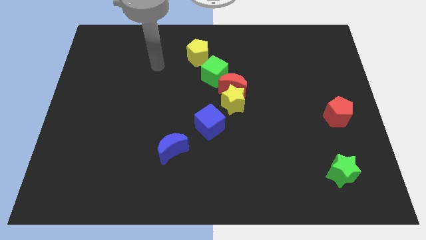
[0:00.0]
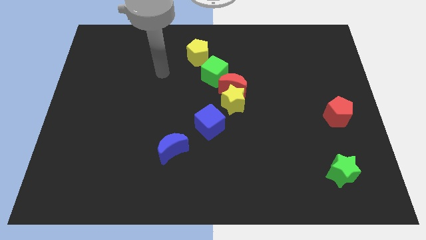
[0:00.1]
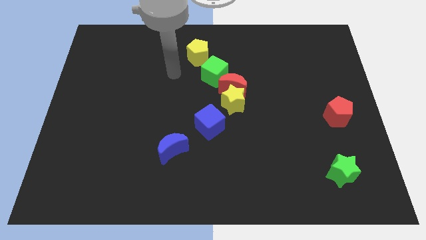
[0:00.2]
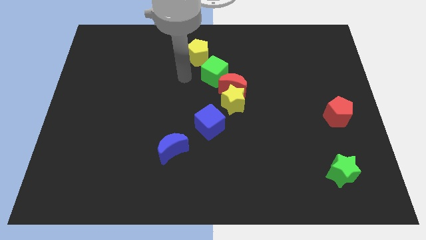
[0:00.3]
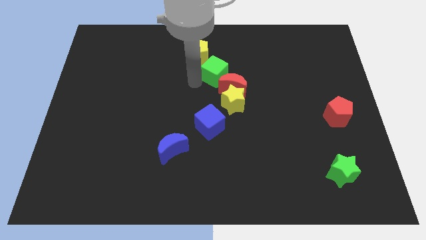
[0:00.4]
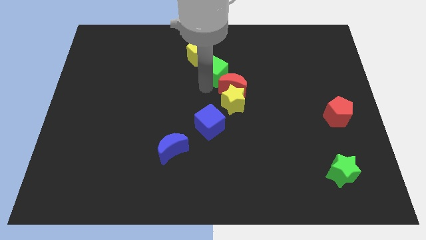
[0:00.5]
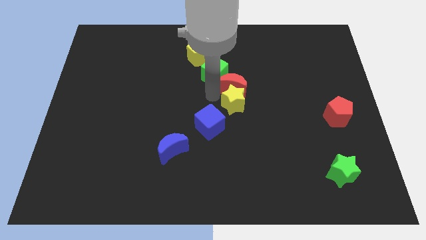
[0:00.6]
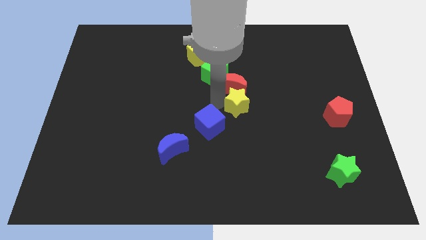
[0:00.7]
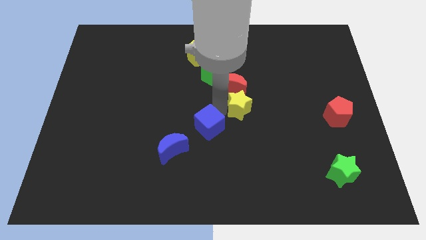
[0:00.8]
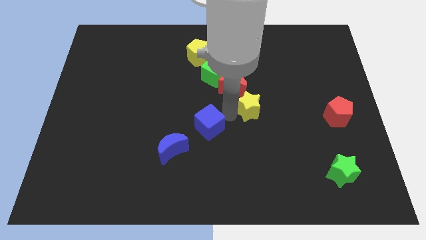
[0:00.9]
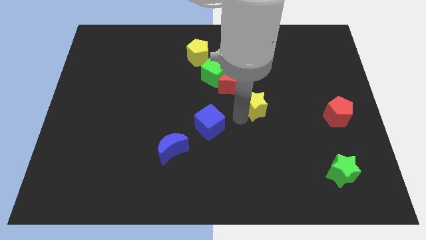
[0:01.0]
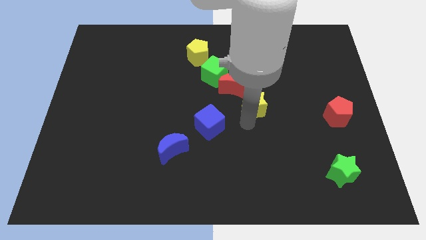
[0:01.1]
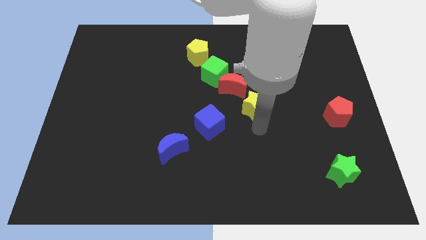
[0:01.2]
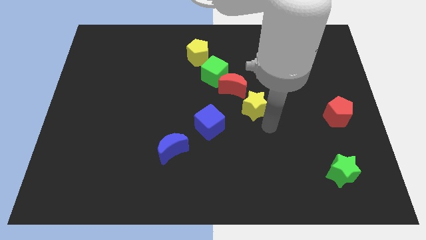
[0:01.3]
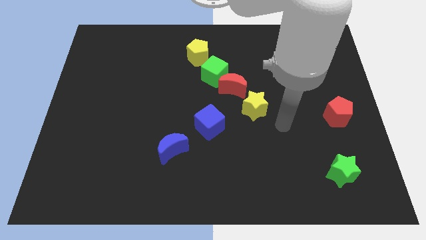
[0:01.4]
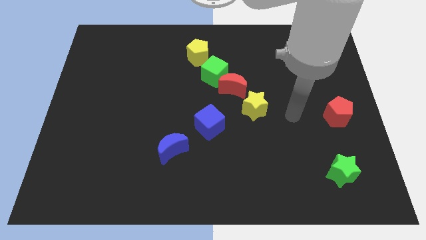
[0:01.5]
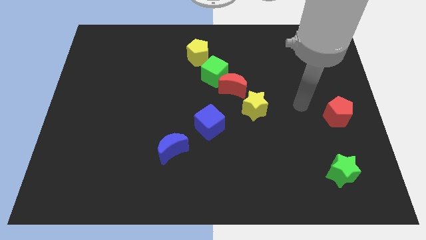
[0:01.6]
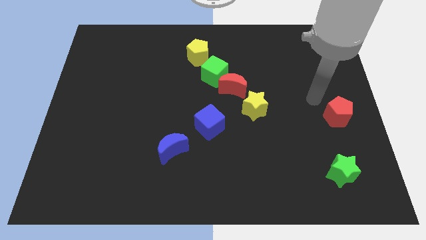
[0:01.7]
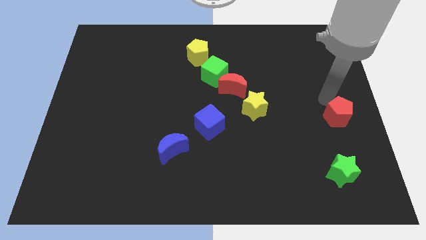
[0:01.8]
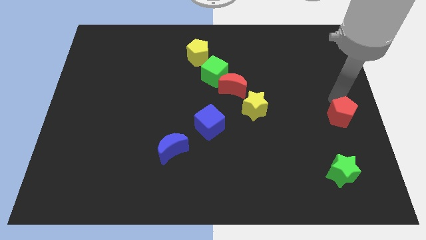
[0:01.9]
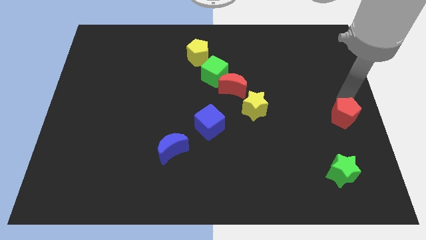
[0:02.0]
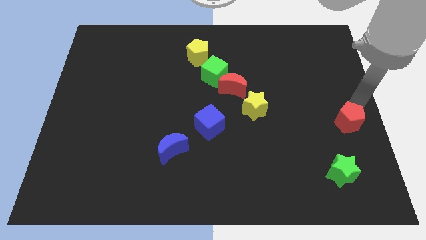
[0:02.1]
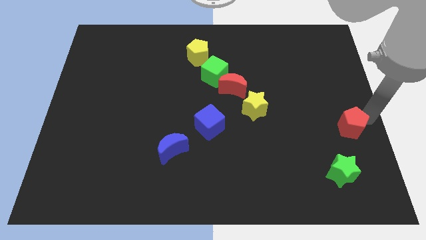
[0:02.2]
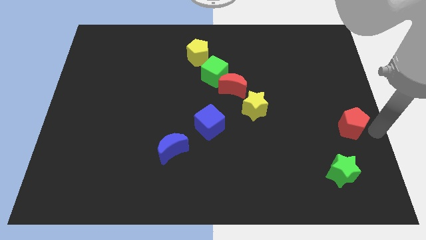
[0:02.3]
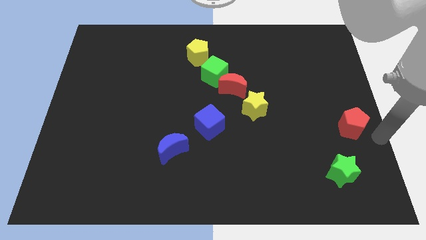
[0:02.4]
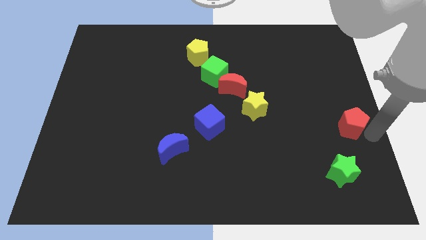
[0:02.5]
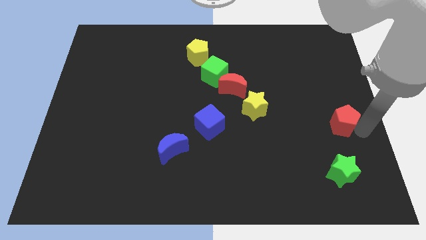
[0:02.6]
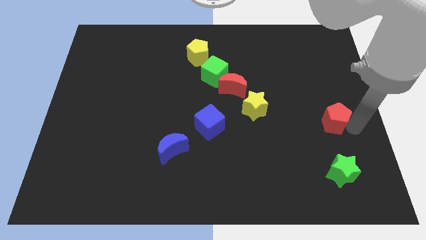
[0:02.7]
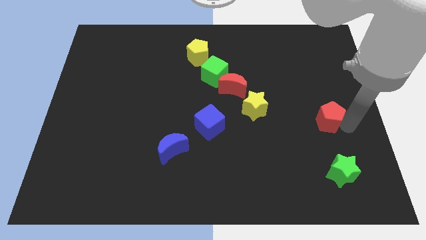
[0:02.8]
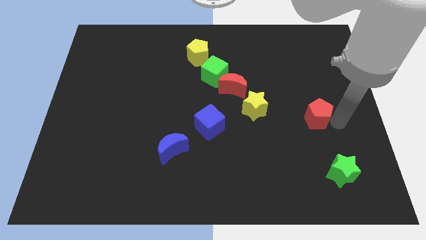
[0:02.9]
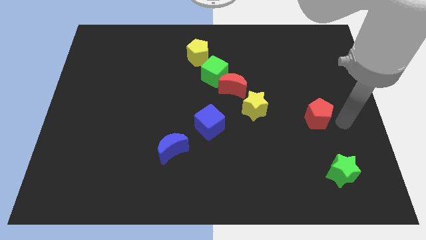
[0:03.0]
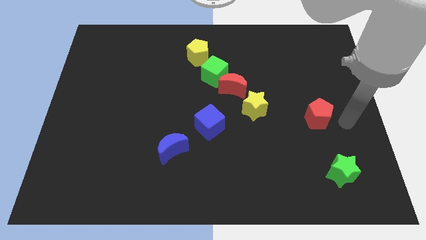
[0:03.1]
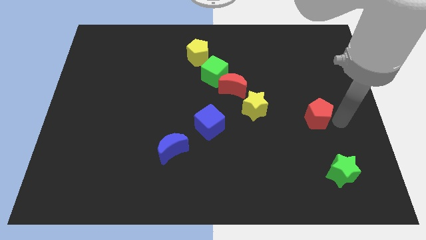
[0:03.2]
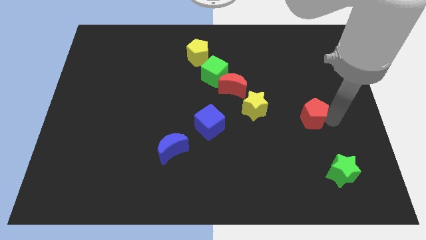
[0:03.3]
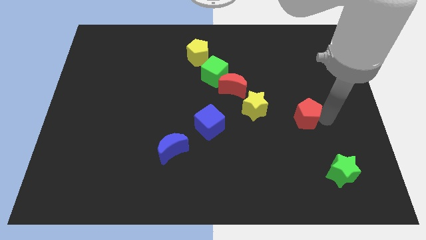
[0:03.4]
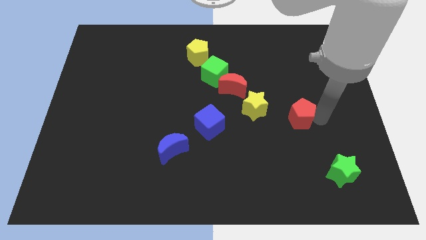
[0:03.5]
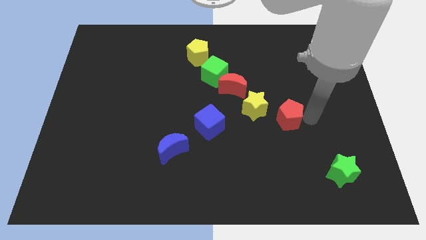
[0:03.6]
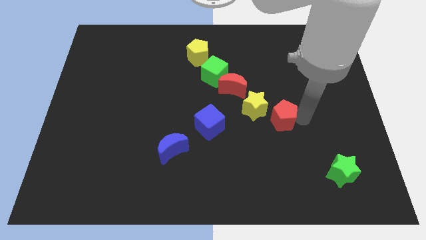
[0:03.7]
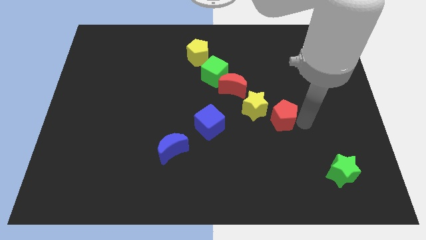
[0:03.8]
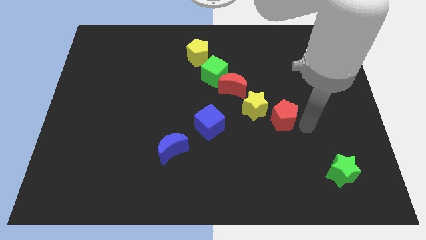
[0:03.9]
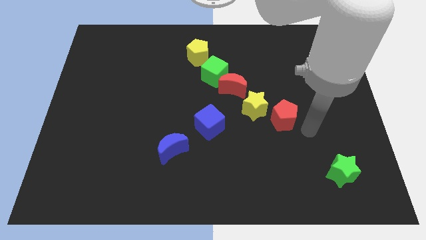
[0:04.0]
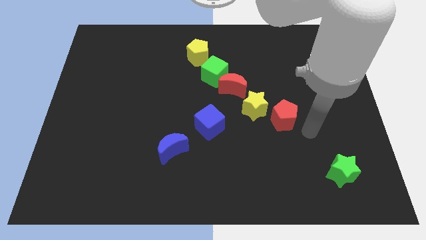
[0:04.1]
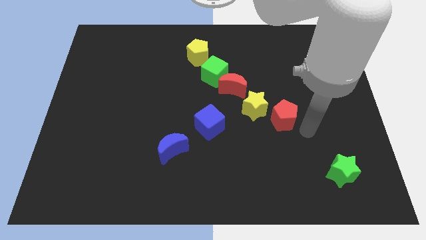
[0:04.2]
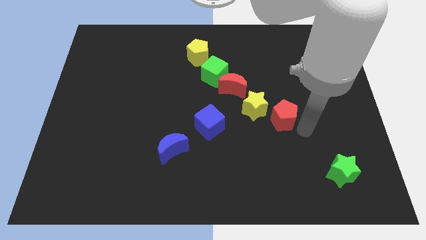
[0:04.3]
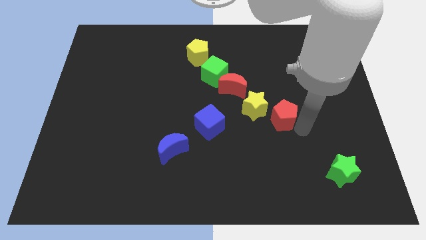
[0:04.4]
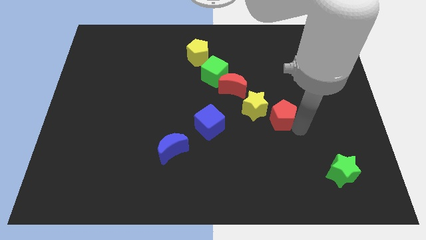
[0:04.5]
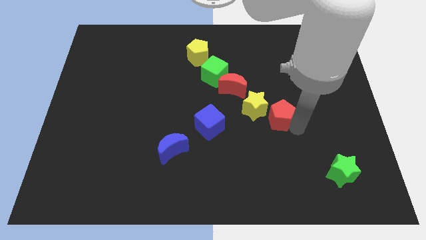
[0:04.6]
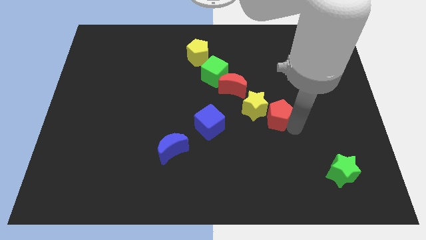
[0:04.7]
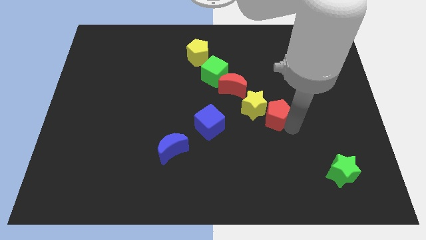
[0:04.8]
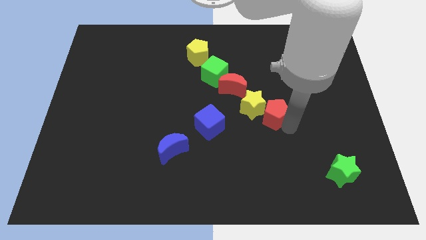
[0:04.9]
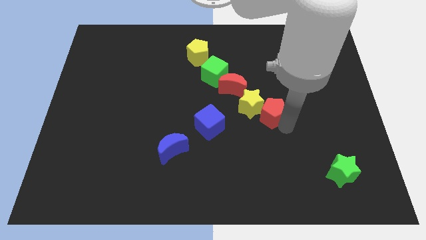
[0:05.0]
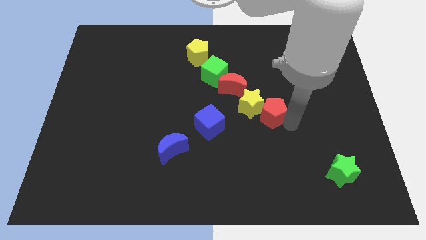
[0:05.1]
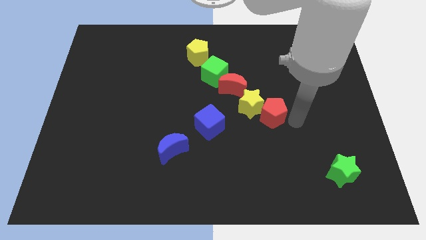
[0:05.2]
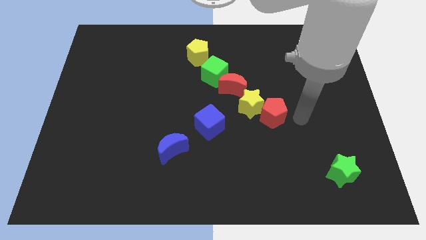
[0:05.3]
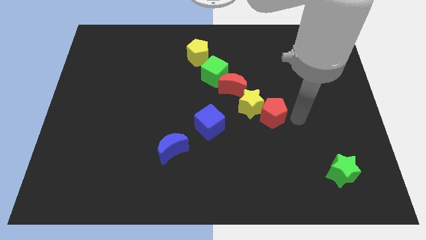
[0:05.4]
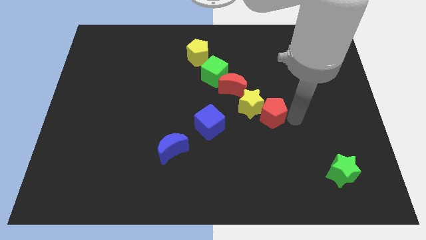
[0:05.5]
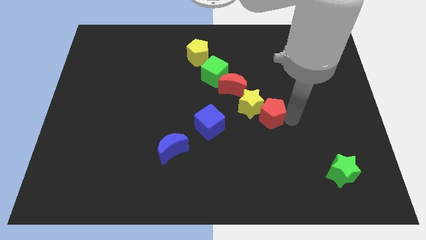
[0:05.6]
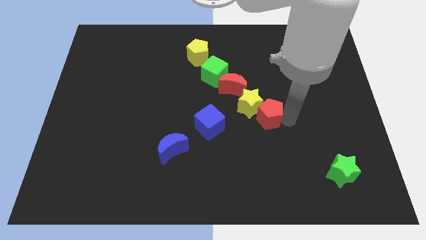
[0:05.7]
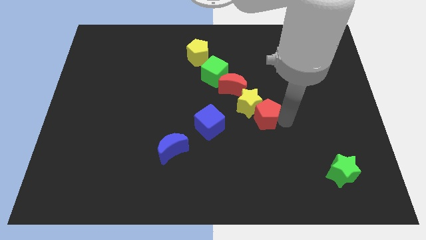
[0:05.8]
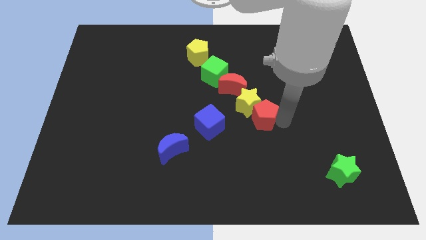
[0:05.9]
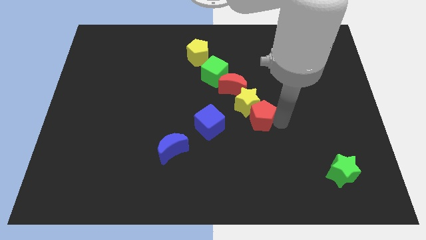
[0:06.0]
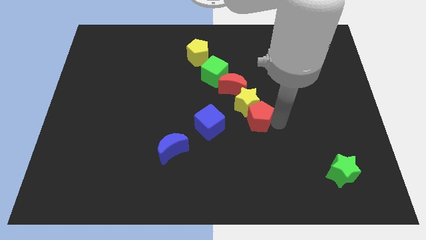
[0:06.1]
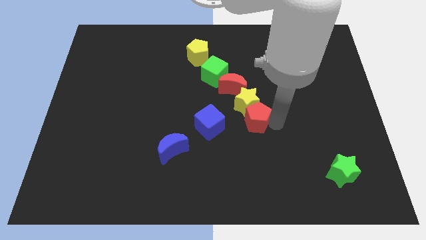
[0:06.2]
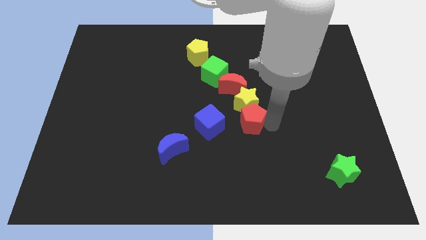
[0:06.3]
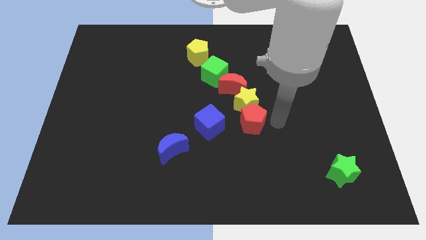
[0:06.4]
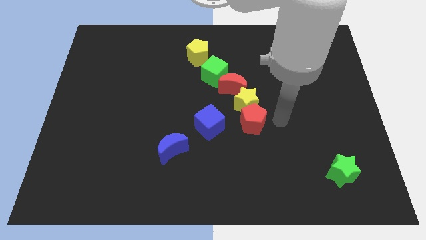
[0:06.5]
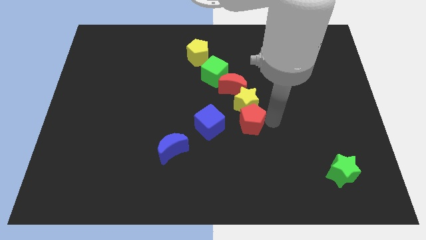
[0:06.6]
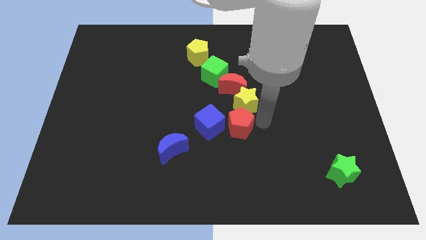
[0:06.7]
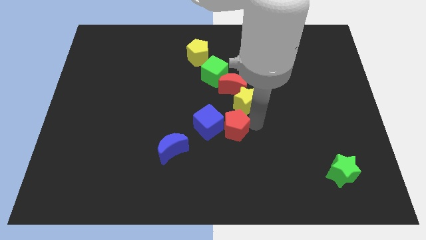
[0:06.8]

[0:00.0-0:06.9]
put the red pentagon close to the blue cube
